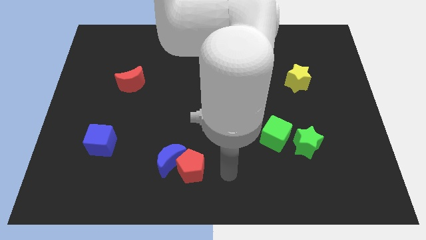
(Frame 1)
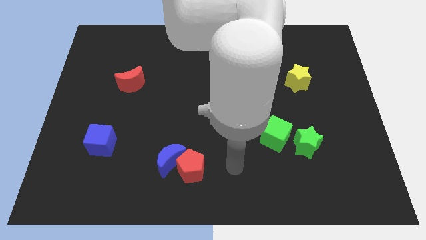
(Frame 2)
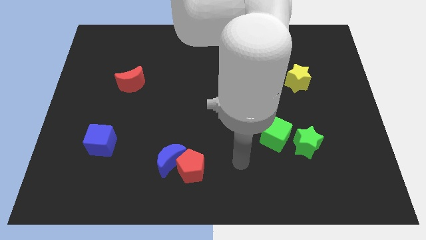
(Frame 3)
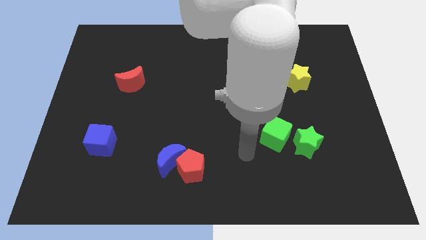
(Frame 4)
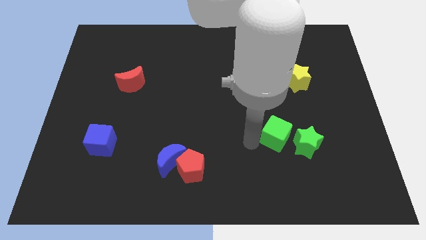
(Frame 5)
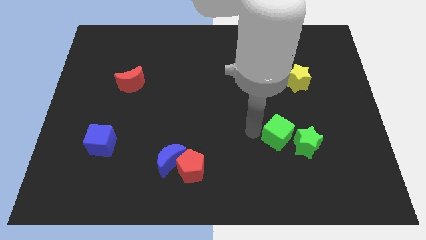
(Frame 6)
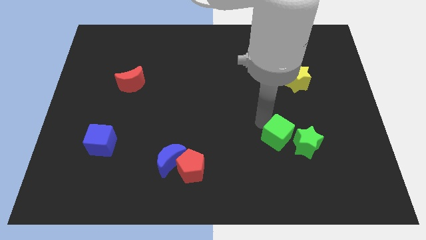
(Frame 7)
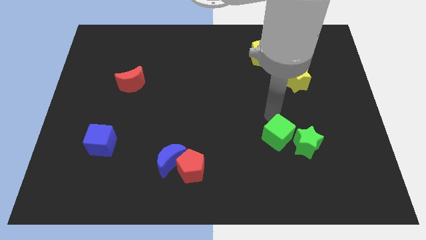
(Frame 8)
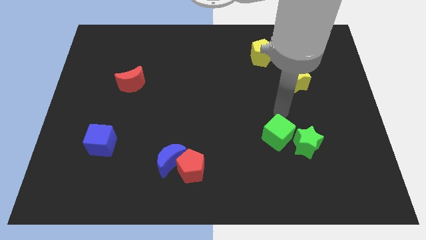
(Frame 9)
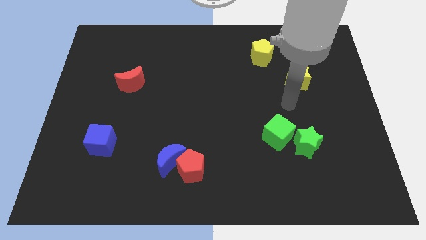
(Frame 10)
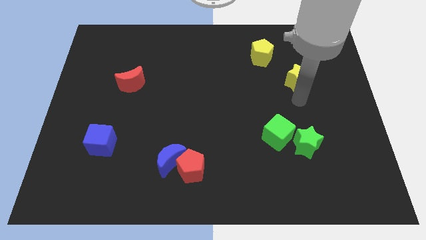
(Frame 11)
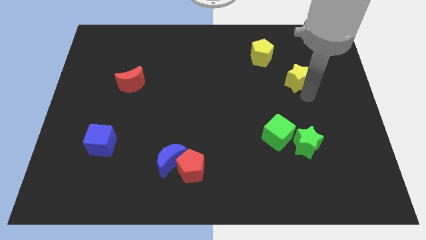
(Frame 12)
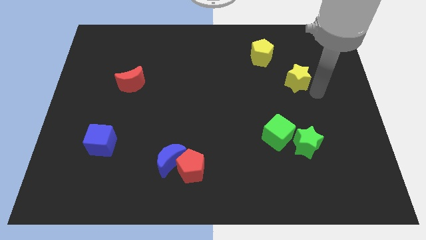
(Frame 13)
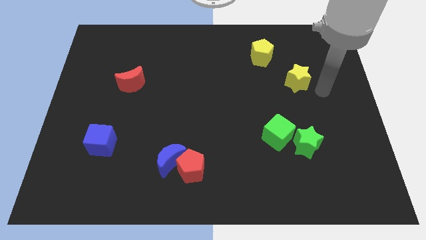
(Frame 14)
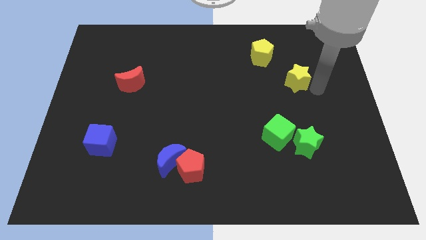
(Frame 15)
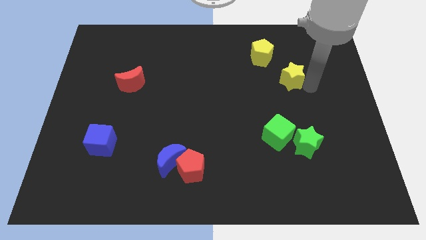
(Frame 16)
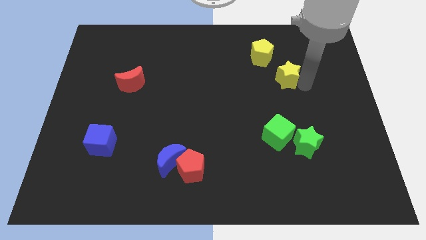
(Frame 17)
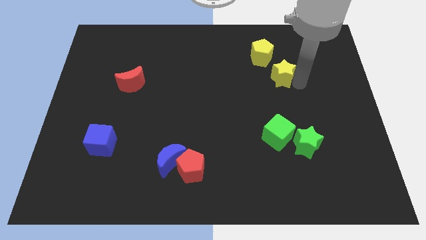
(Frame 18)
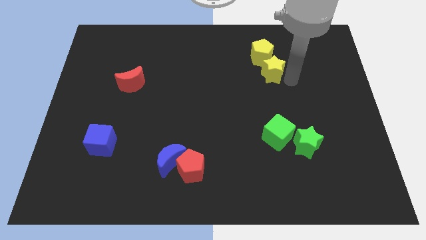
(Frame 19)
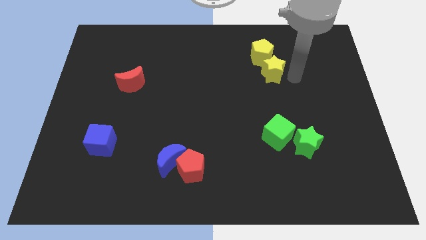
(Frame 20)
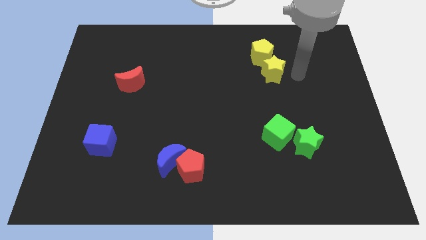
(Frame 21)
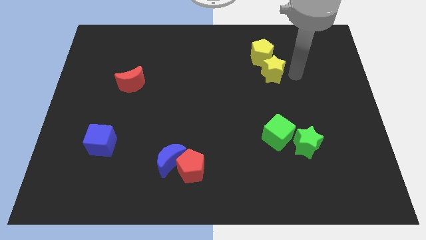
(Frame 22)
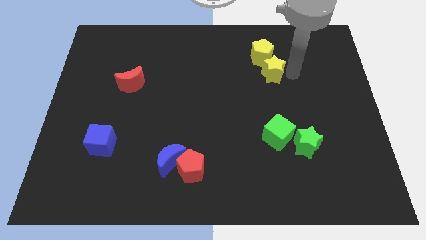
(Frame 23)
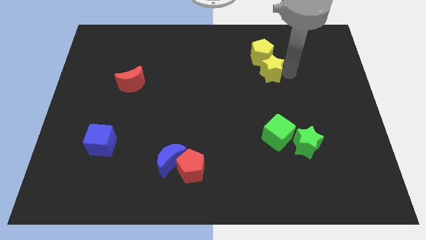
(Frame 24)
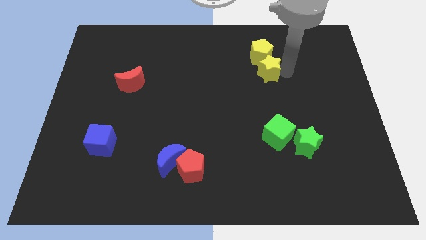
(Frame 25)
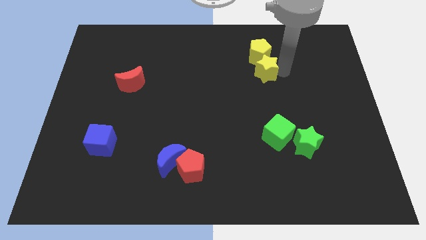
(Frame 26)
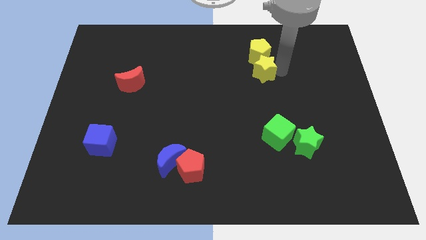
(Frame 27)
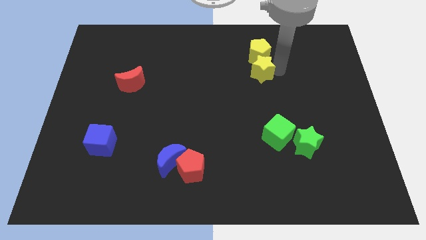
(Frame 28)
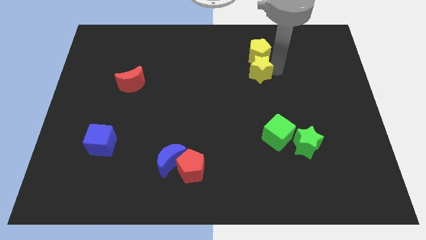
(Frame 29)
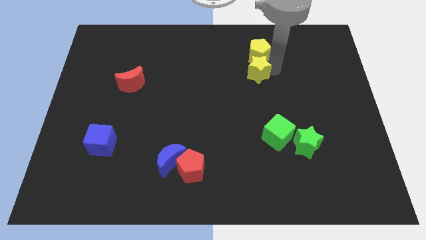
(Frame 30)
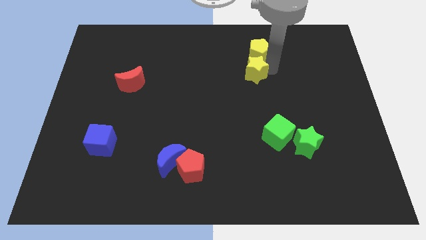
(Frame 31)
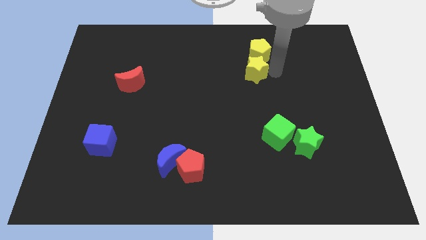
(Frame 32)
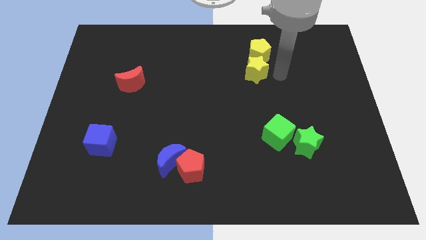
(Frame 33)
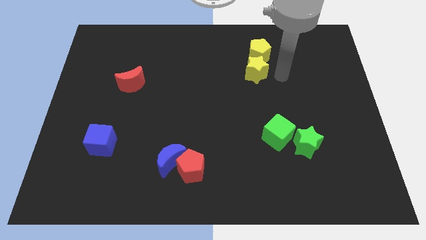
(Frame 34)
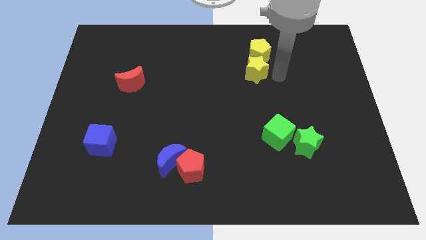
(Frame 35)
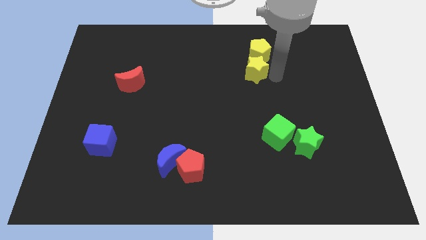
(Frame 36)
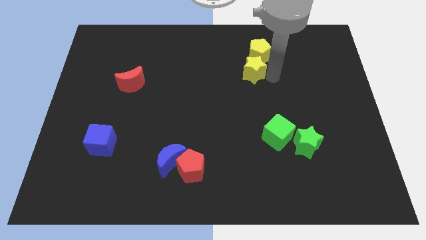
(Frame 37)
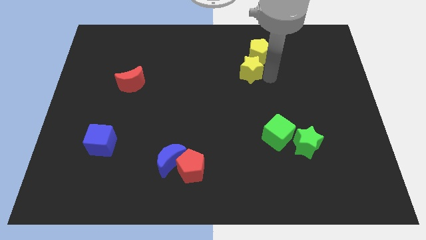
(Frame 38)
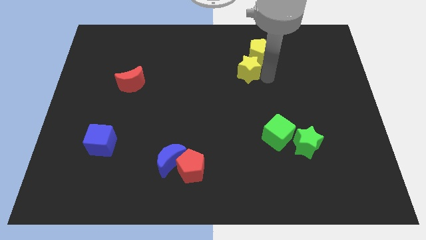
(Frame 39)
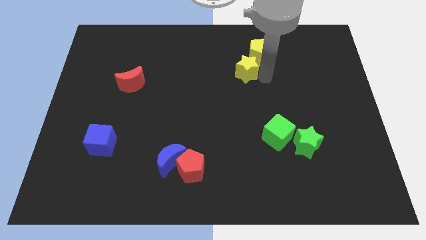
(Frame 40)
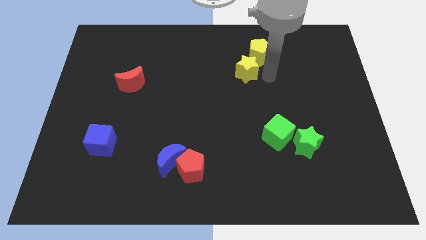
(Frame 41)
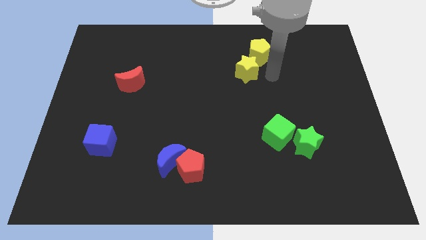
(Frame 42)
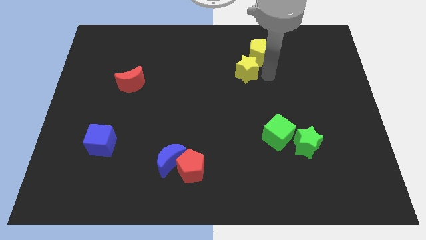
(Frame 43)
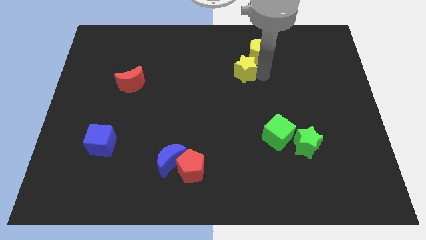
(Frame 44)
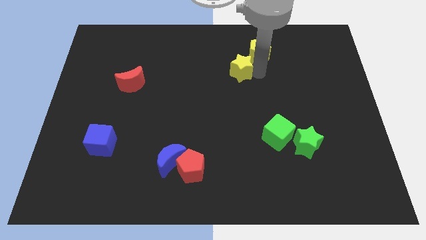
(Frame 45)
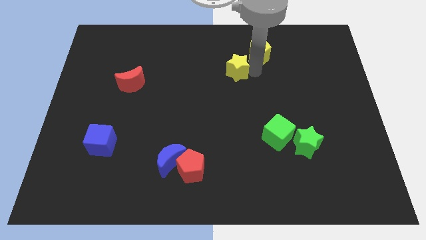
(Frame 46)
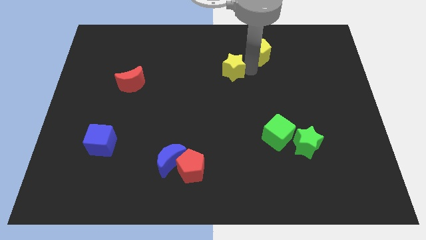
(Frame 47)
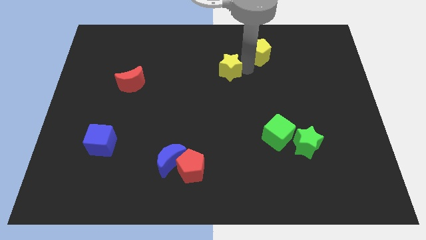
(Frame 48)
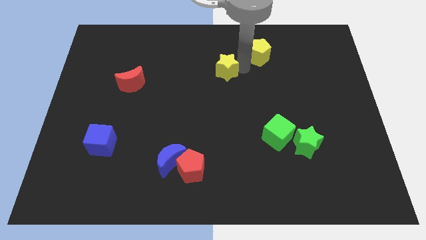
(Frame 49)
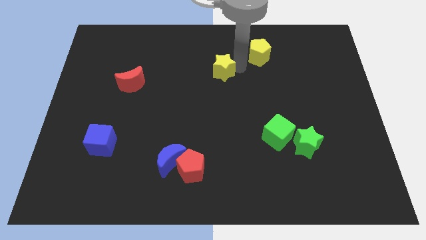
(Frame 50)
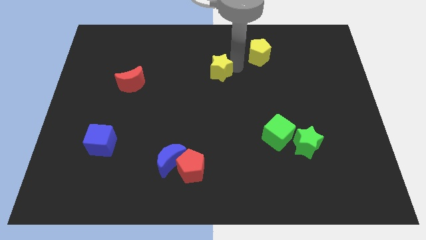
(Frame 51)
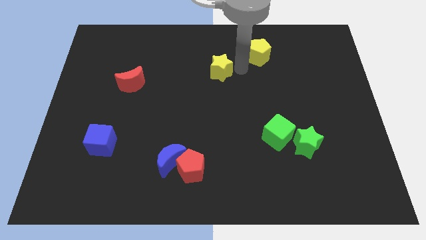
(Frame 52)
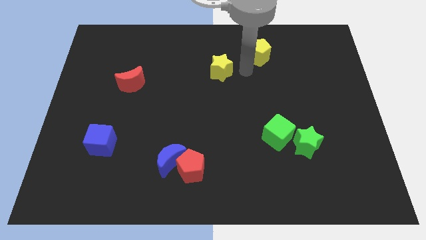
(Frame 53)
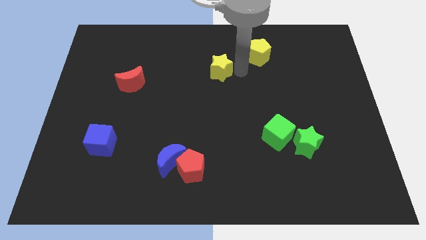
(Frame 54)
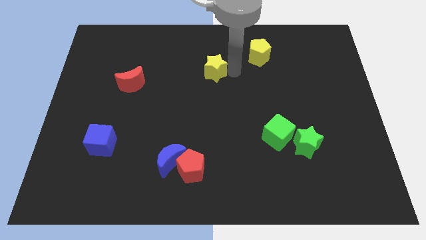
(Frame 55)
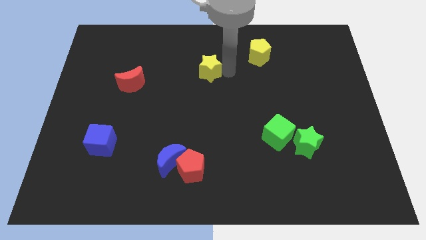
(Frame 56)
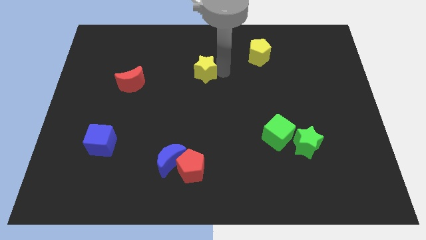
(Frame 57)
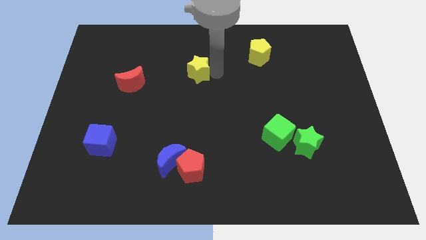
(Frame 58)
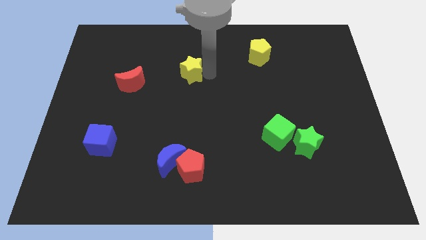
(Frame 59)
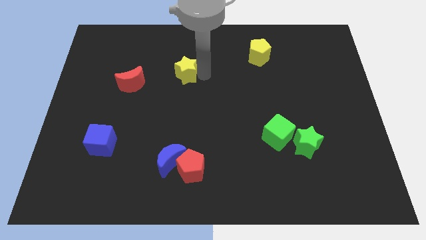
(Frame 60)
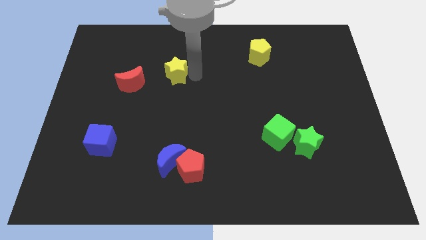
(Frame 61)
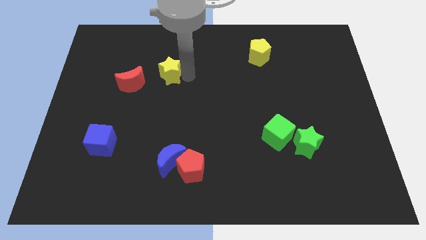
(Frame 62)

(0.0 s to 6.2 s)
put the yellow star diagonally up and to the right of the red moon

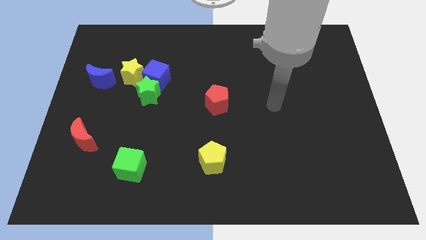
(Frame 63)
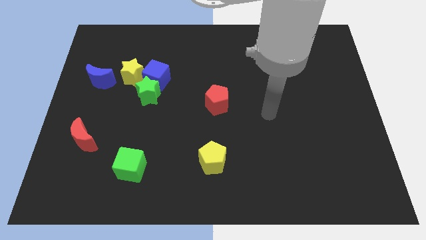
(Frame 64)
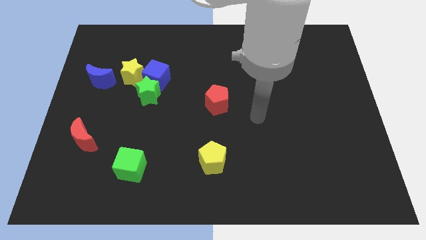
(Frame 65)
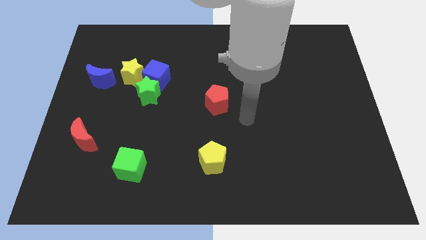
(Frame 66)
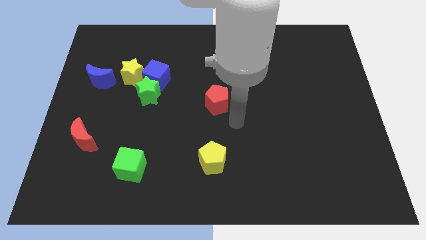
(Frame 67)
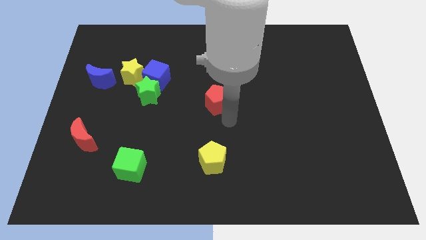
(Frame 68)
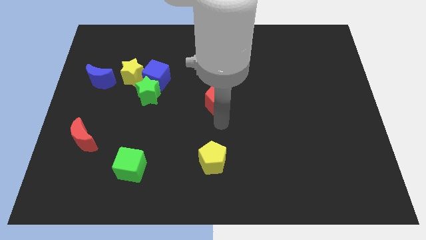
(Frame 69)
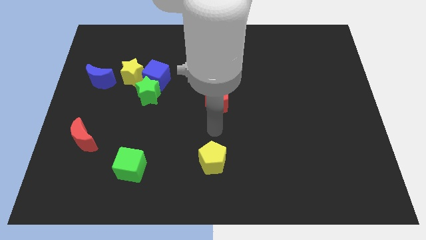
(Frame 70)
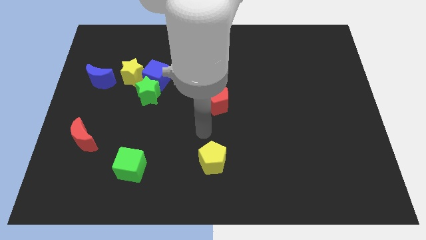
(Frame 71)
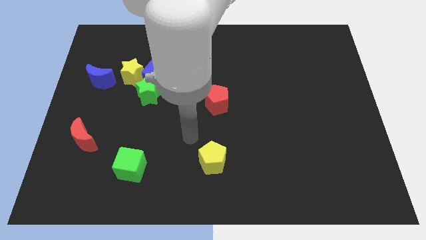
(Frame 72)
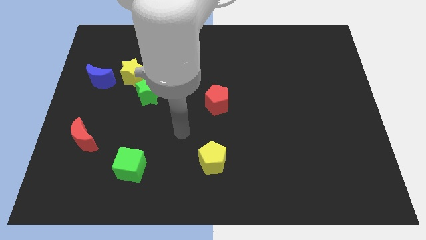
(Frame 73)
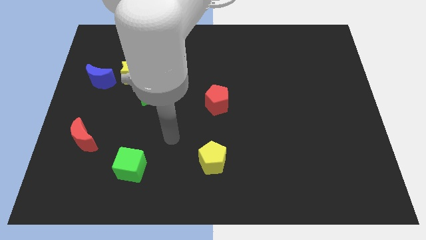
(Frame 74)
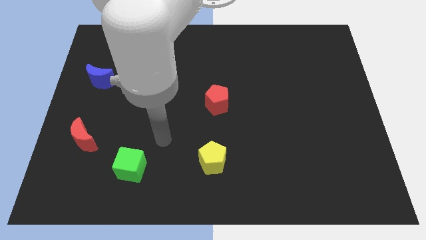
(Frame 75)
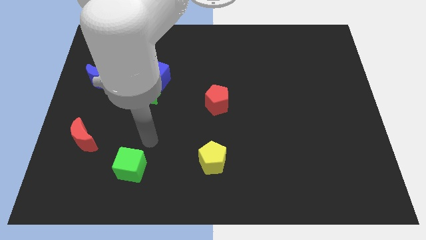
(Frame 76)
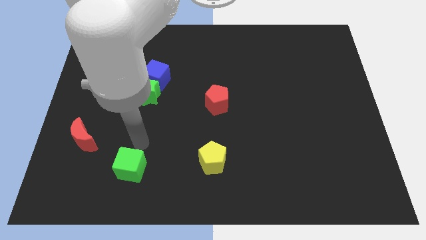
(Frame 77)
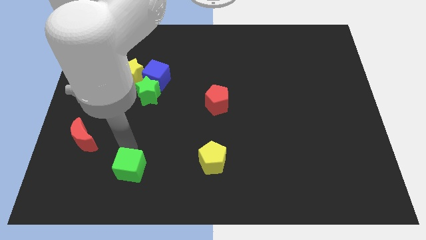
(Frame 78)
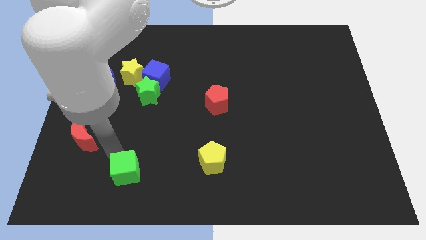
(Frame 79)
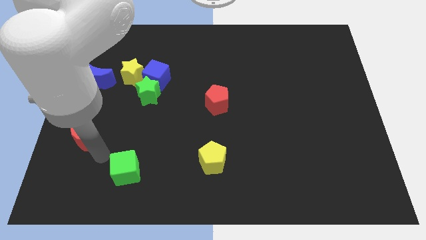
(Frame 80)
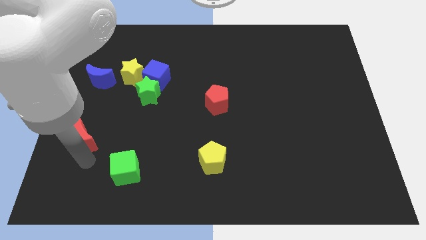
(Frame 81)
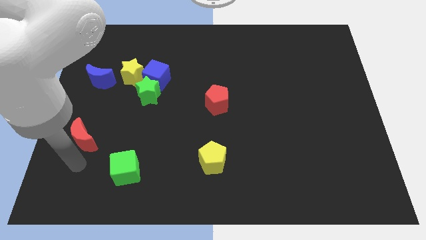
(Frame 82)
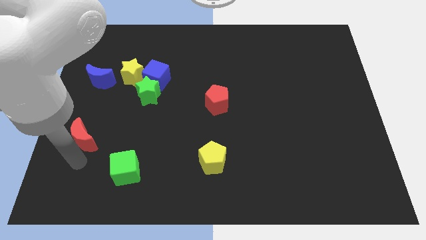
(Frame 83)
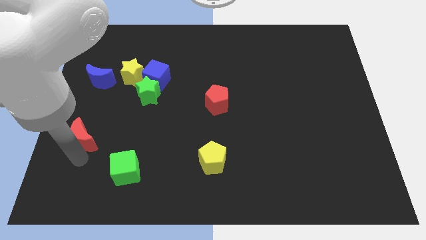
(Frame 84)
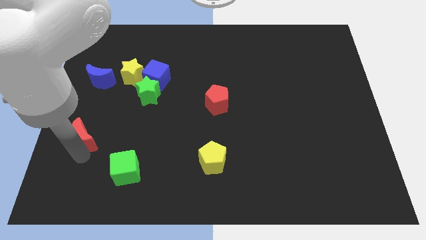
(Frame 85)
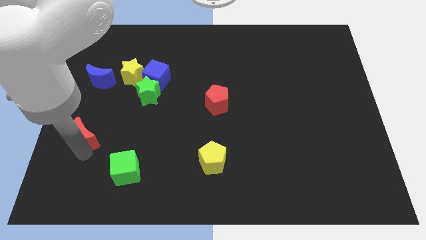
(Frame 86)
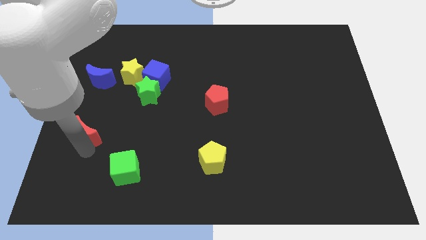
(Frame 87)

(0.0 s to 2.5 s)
move the red moon to the bottom of the blue moon
